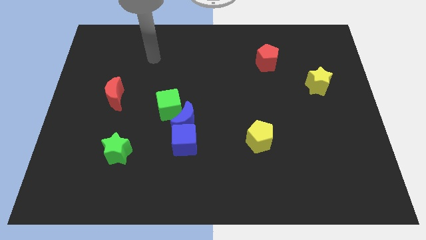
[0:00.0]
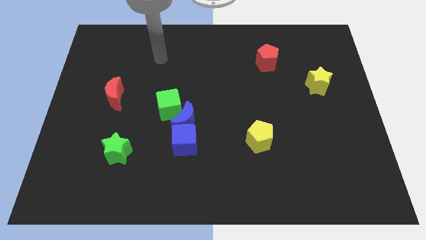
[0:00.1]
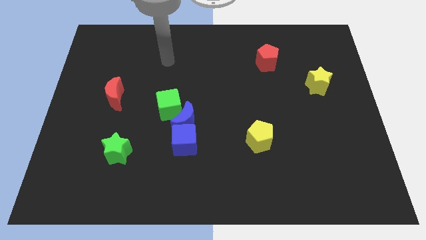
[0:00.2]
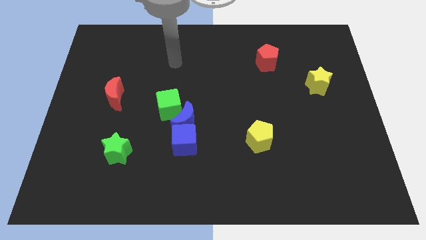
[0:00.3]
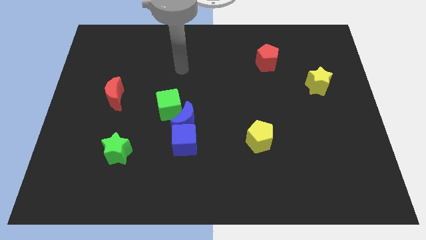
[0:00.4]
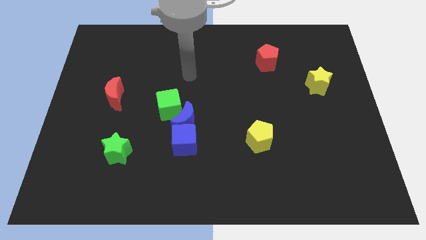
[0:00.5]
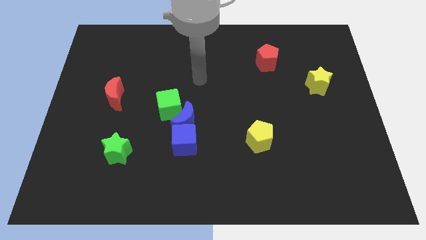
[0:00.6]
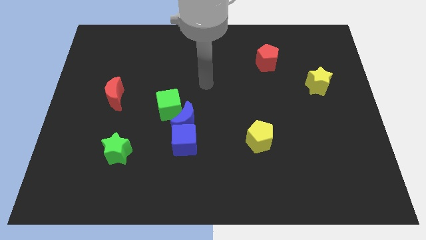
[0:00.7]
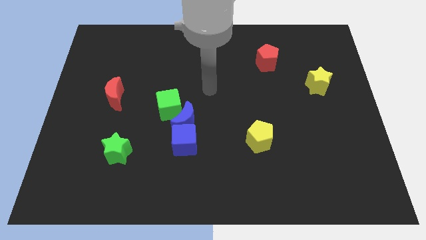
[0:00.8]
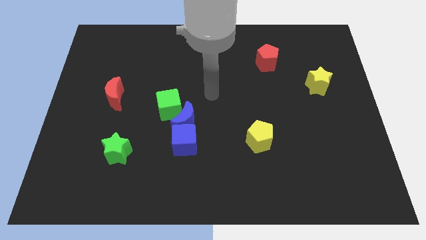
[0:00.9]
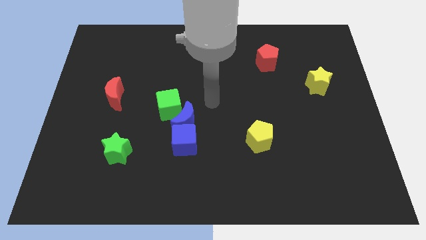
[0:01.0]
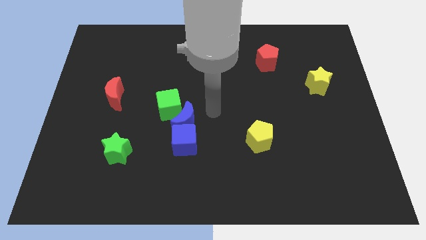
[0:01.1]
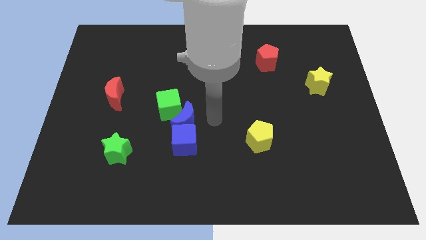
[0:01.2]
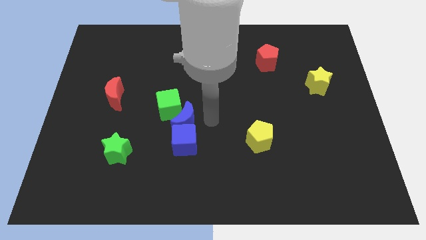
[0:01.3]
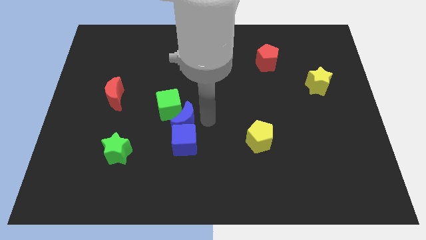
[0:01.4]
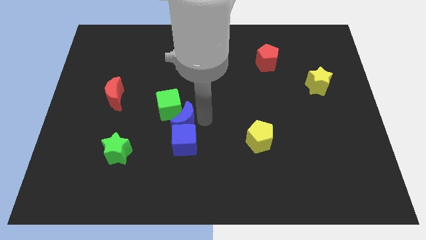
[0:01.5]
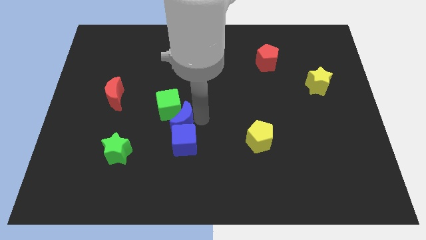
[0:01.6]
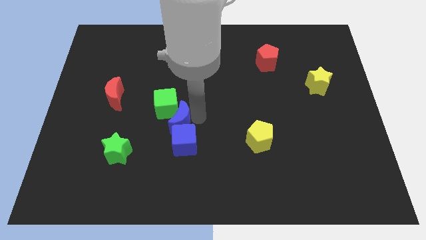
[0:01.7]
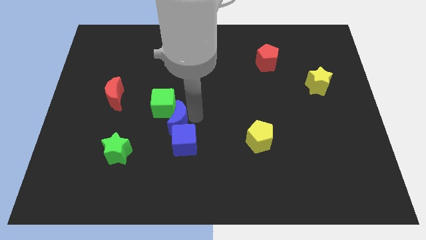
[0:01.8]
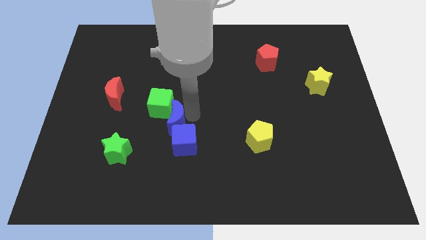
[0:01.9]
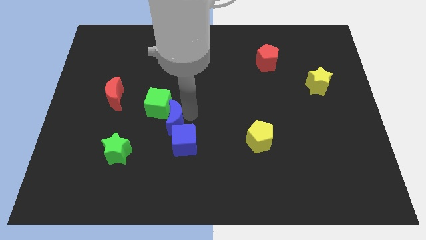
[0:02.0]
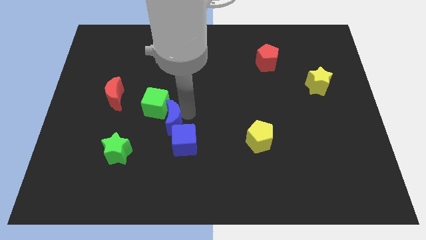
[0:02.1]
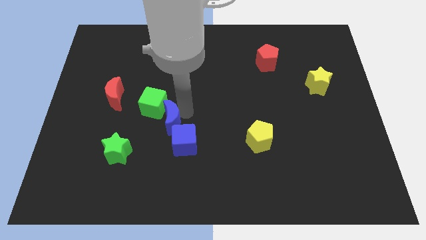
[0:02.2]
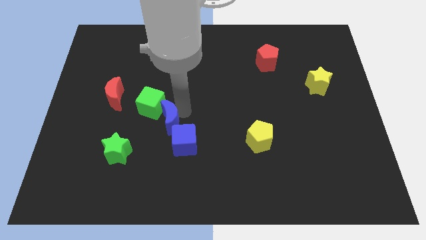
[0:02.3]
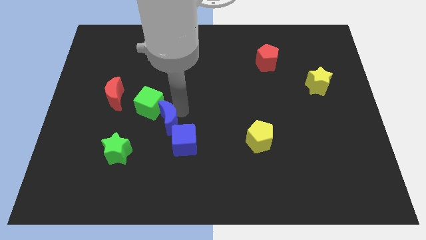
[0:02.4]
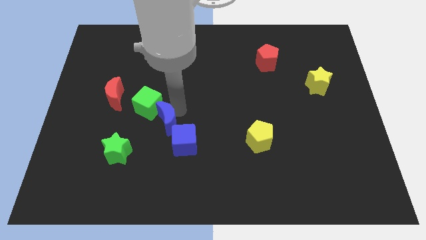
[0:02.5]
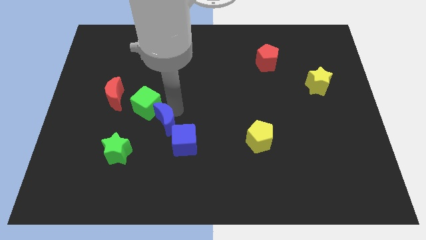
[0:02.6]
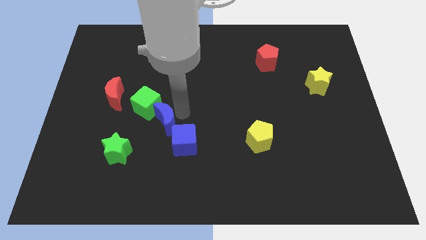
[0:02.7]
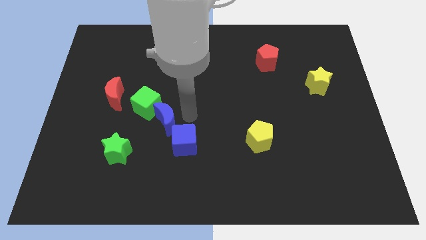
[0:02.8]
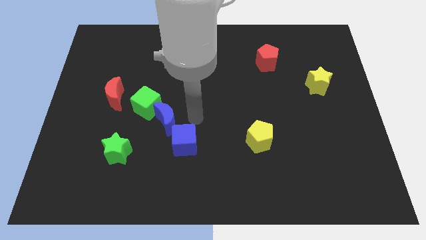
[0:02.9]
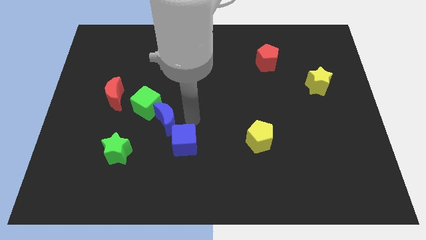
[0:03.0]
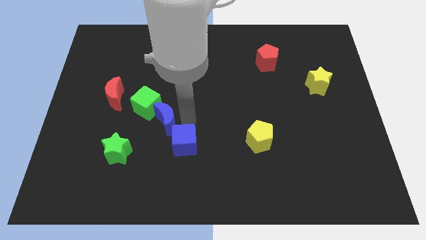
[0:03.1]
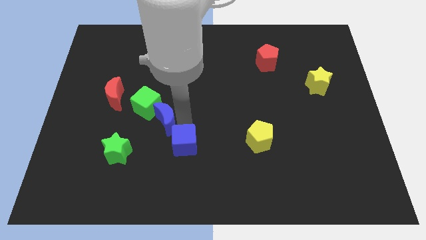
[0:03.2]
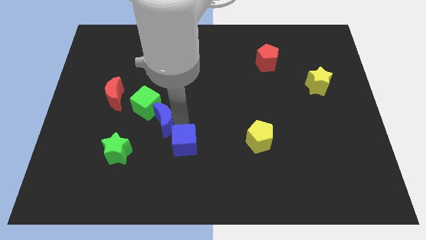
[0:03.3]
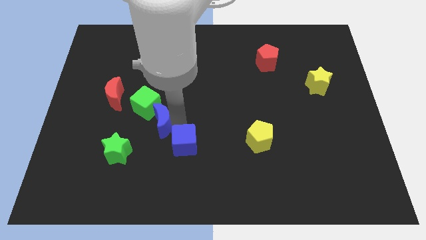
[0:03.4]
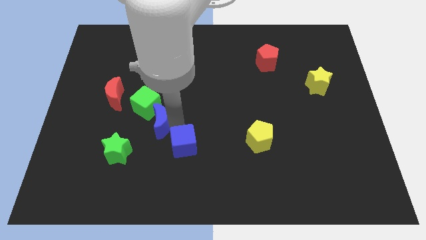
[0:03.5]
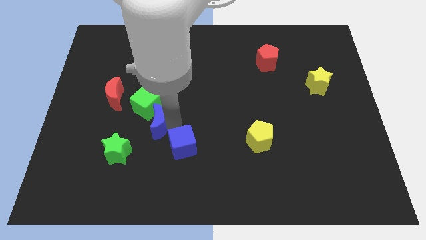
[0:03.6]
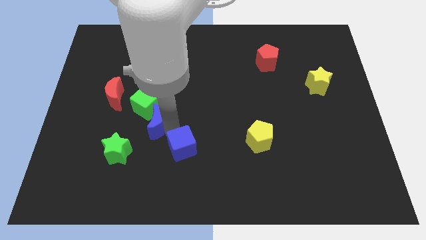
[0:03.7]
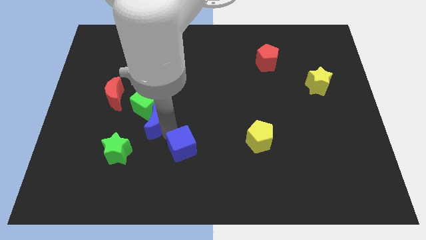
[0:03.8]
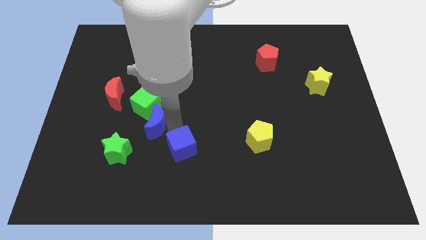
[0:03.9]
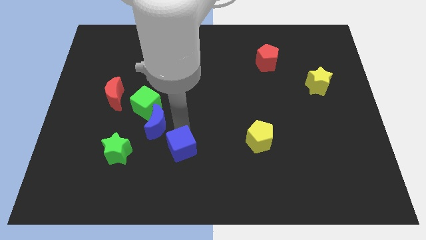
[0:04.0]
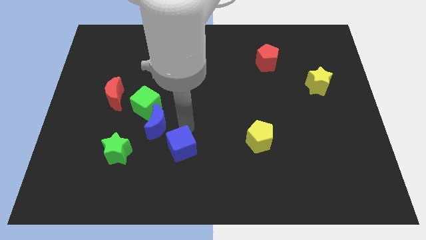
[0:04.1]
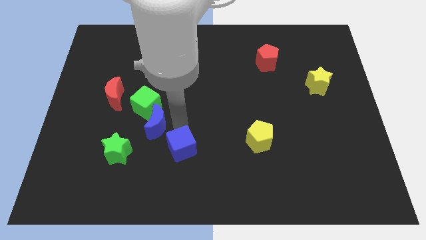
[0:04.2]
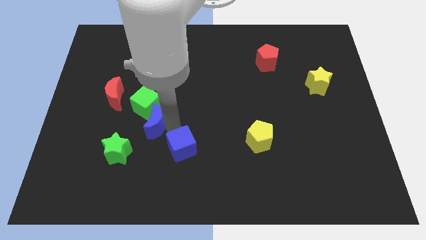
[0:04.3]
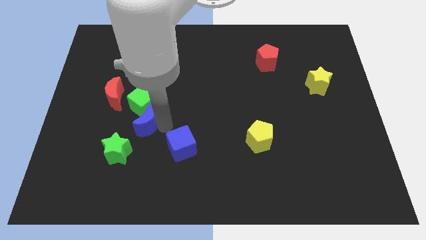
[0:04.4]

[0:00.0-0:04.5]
slightly move the blue moon to the left

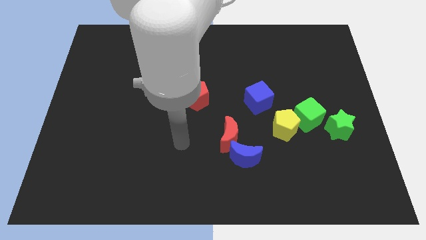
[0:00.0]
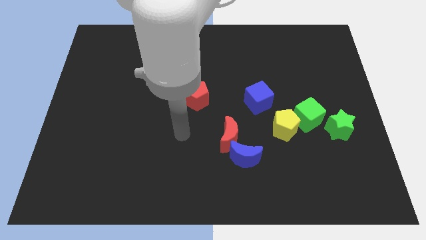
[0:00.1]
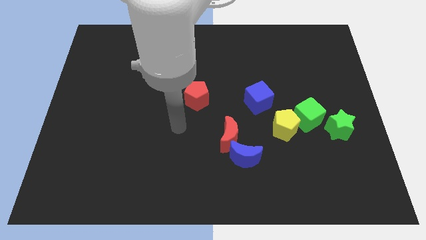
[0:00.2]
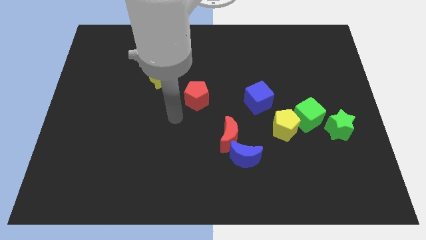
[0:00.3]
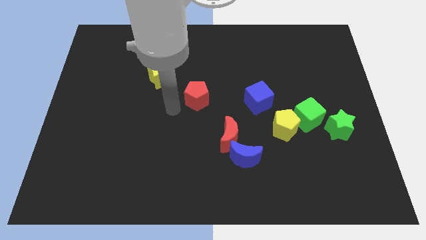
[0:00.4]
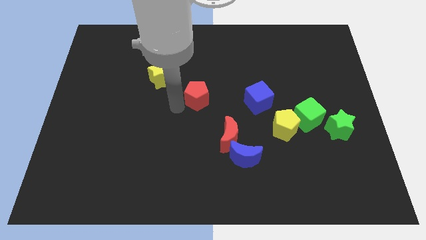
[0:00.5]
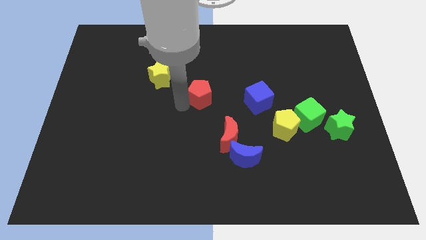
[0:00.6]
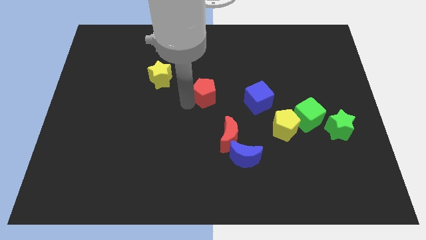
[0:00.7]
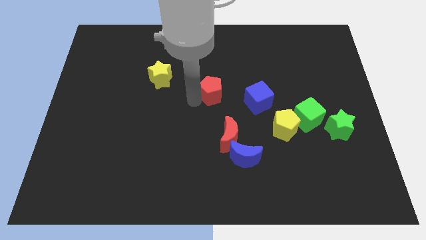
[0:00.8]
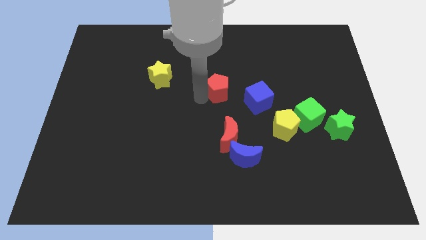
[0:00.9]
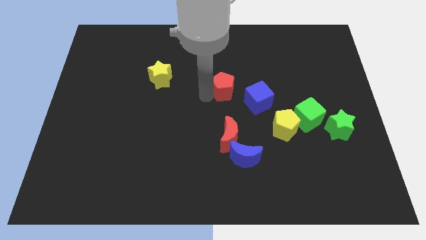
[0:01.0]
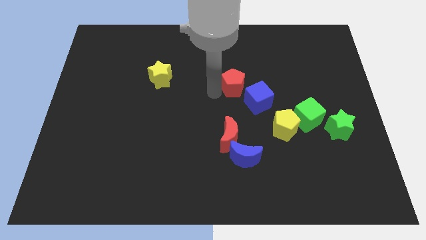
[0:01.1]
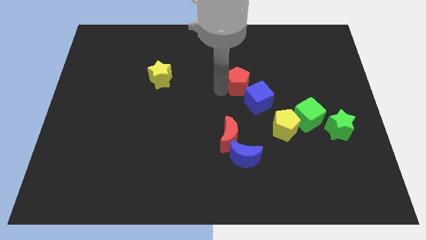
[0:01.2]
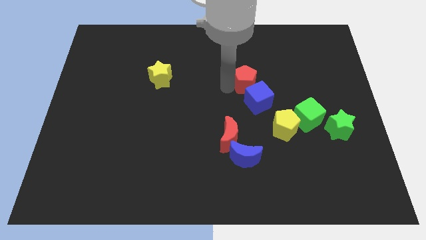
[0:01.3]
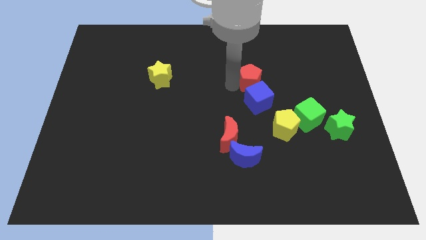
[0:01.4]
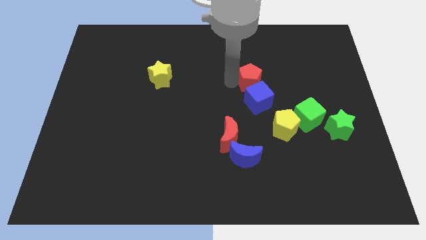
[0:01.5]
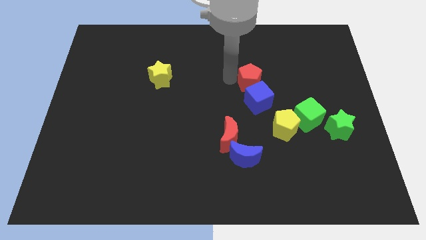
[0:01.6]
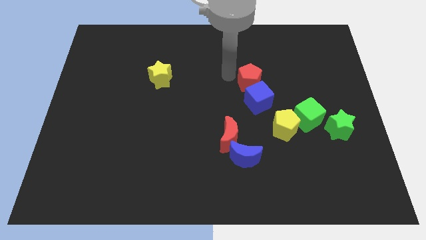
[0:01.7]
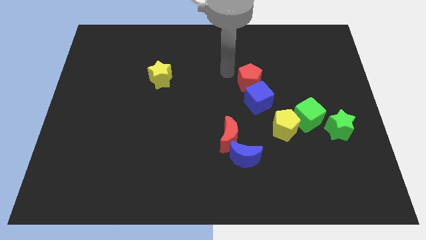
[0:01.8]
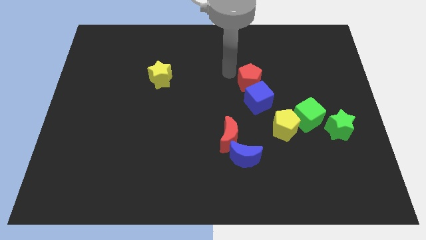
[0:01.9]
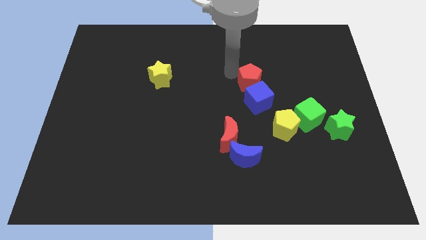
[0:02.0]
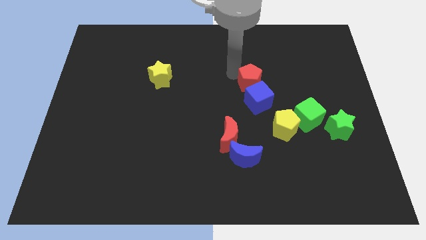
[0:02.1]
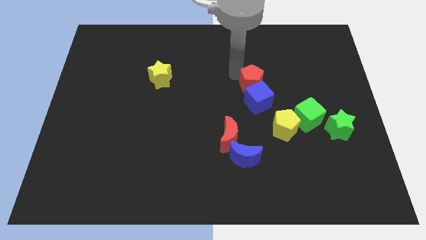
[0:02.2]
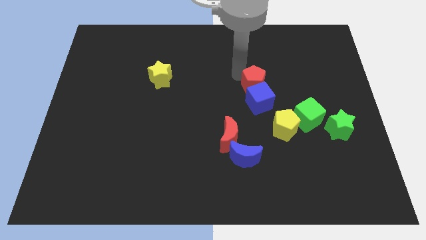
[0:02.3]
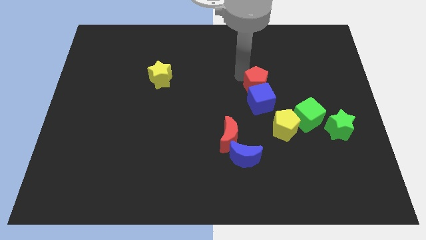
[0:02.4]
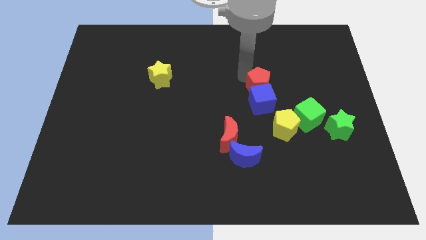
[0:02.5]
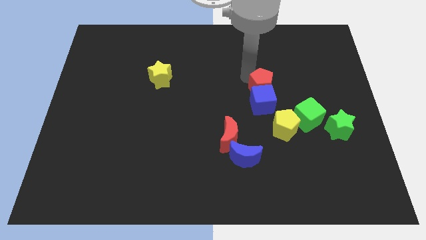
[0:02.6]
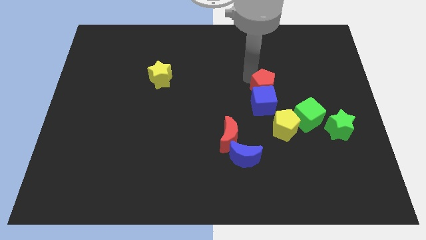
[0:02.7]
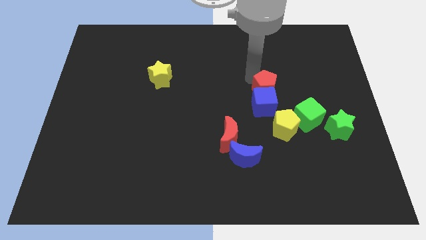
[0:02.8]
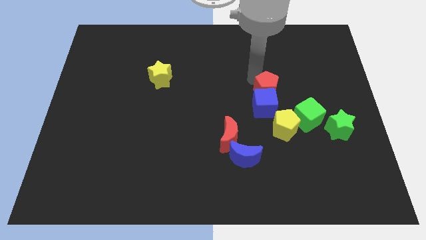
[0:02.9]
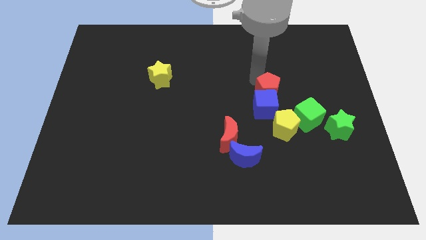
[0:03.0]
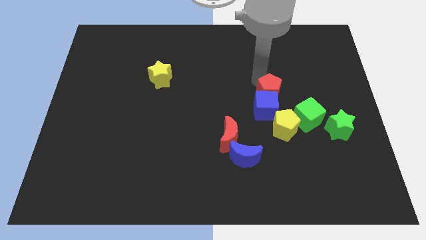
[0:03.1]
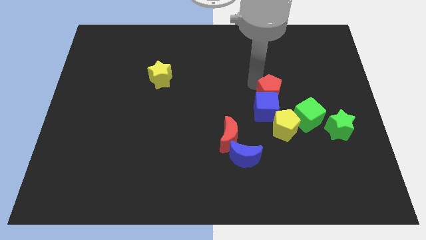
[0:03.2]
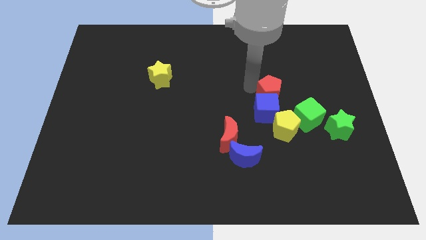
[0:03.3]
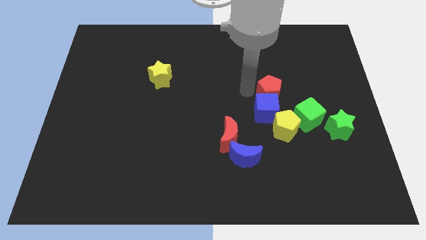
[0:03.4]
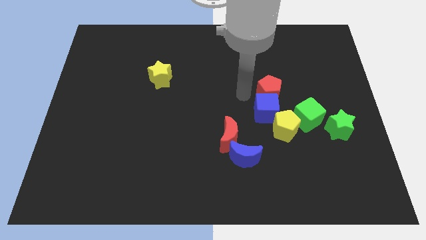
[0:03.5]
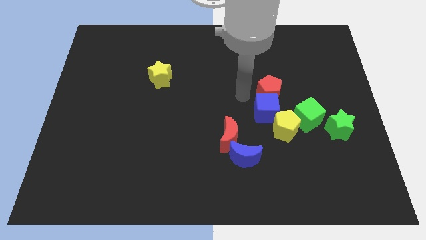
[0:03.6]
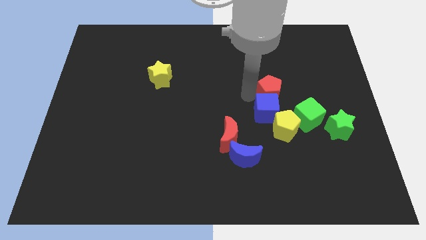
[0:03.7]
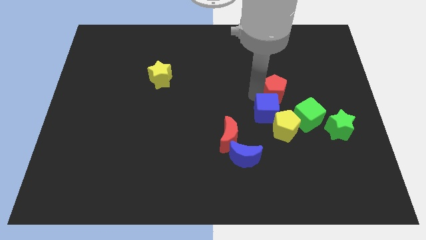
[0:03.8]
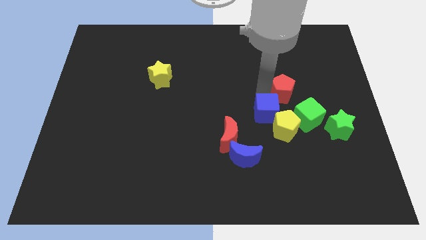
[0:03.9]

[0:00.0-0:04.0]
push the red pentagon right
